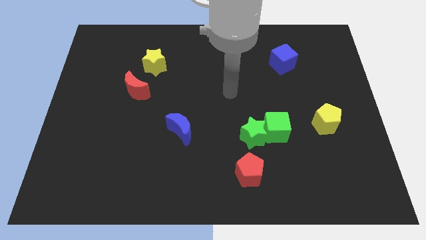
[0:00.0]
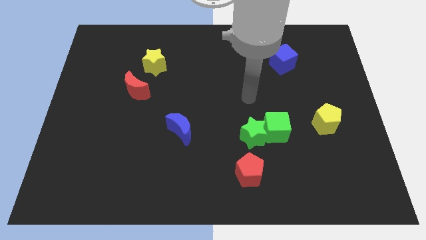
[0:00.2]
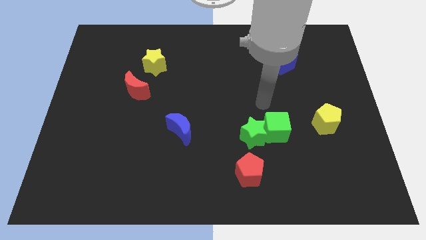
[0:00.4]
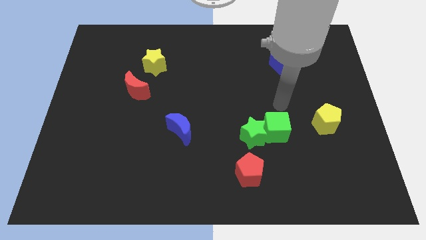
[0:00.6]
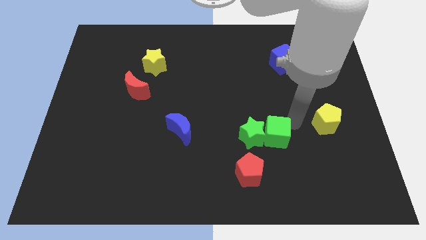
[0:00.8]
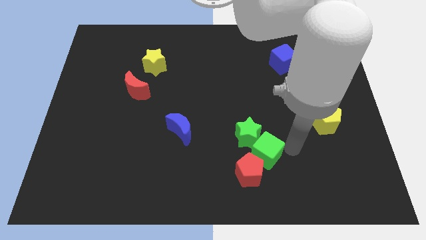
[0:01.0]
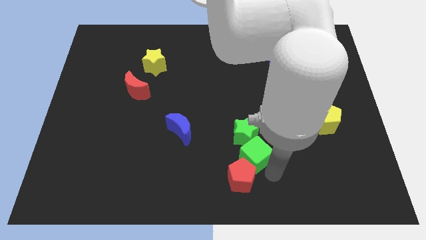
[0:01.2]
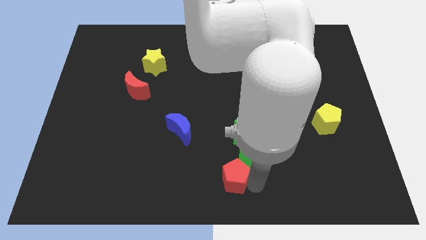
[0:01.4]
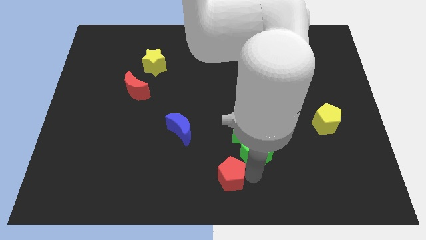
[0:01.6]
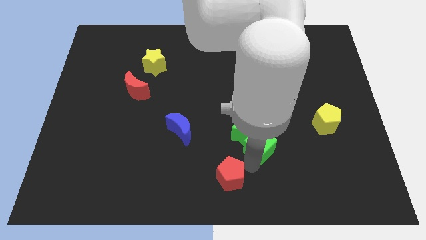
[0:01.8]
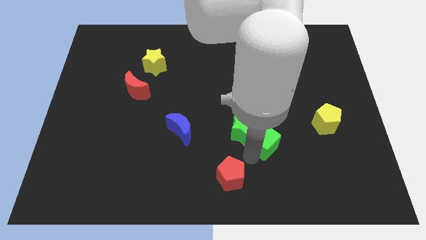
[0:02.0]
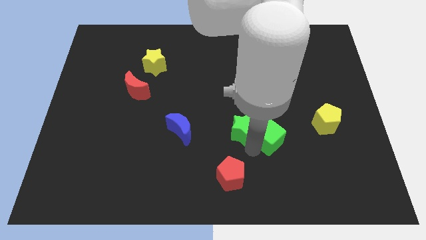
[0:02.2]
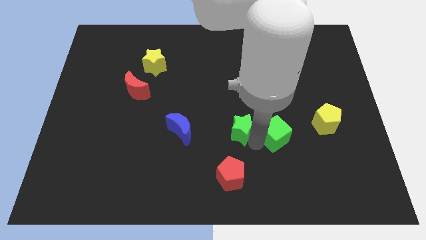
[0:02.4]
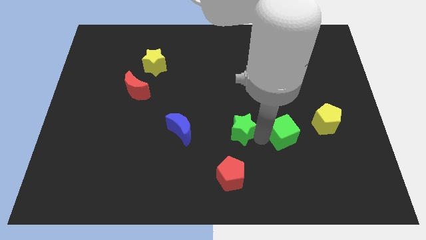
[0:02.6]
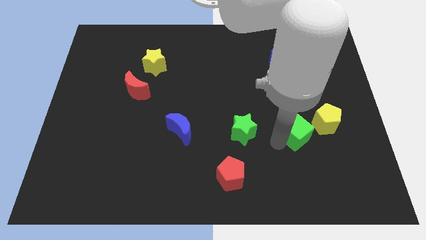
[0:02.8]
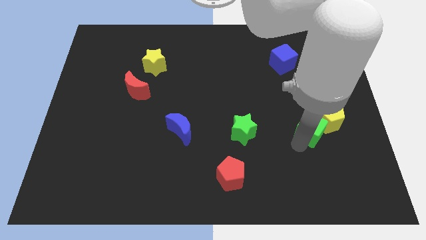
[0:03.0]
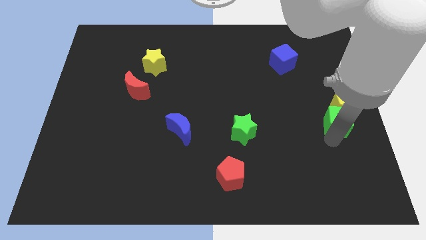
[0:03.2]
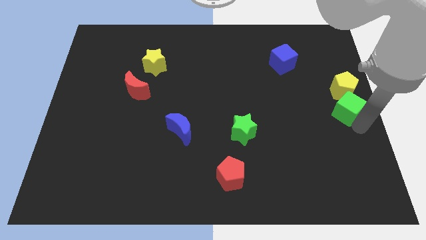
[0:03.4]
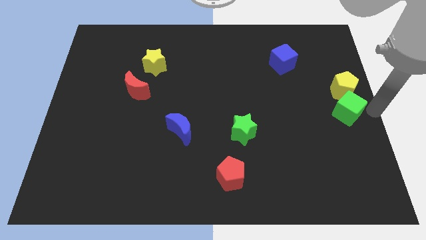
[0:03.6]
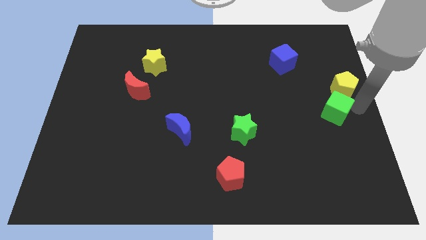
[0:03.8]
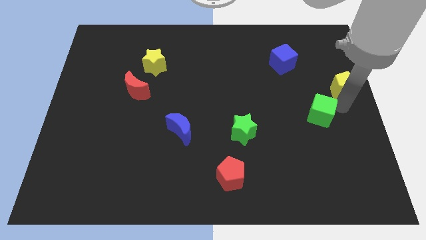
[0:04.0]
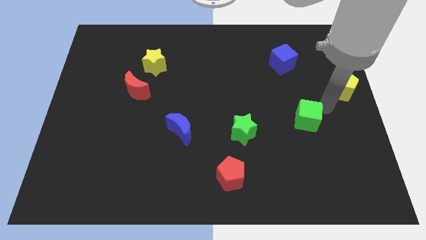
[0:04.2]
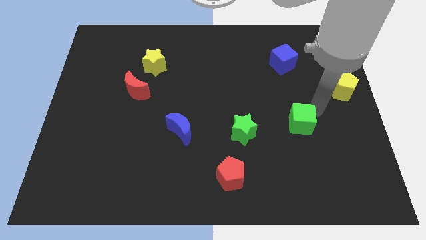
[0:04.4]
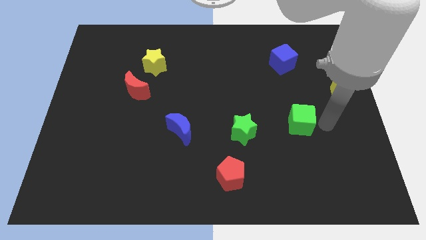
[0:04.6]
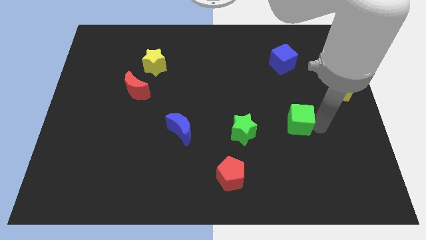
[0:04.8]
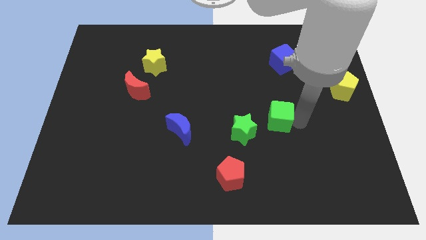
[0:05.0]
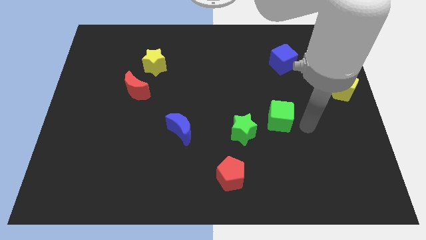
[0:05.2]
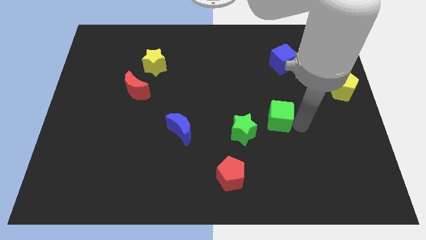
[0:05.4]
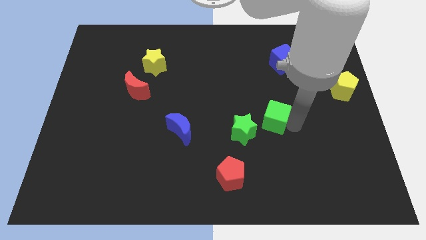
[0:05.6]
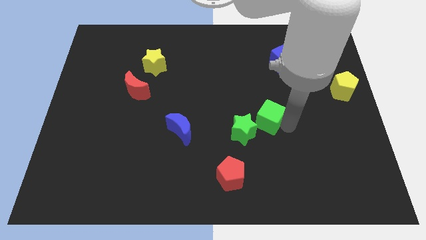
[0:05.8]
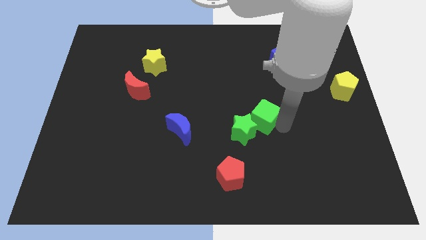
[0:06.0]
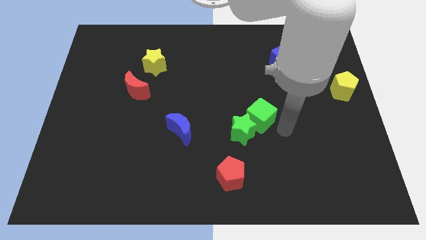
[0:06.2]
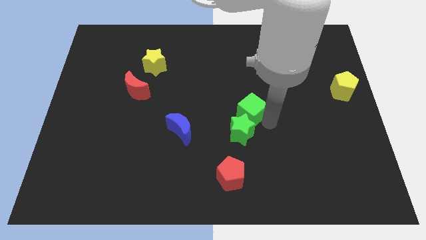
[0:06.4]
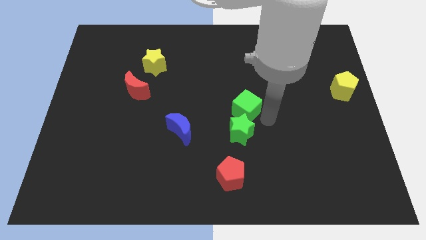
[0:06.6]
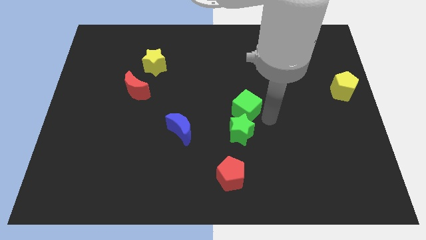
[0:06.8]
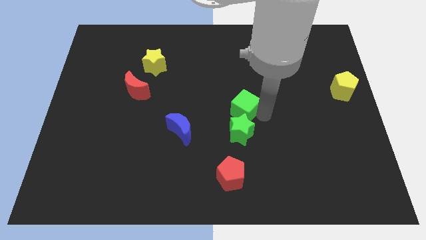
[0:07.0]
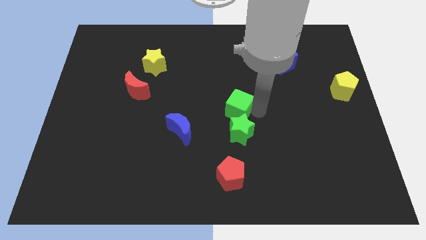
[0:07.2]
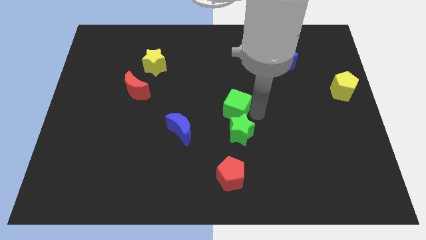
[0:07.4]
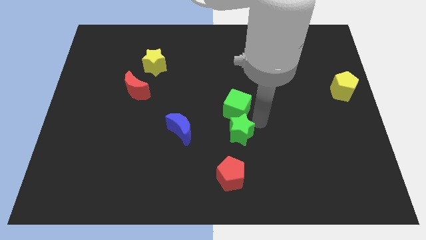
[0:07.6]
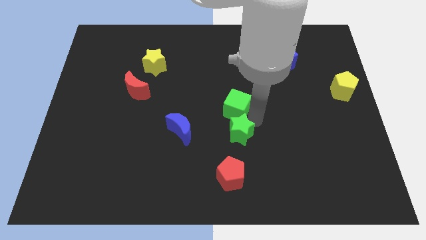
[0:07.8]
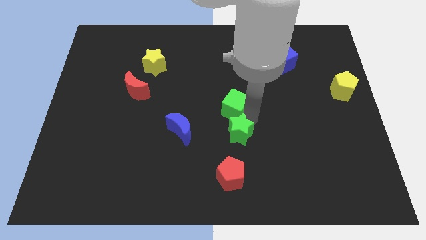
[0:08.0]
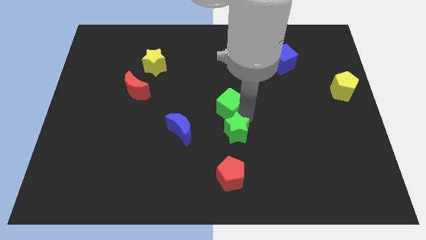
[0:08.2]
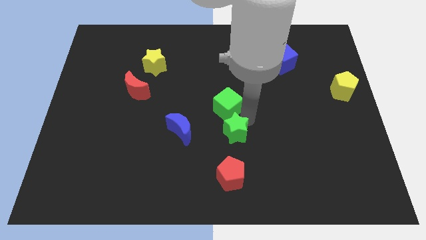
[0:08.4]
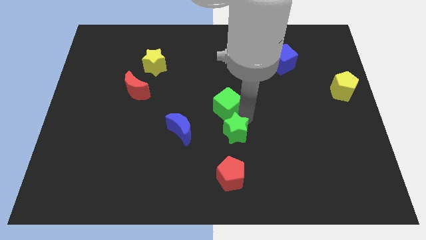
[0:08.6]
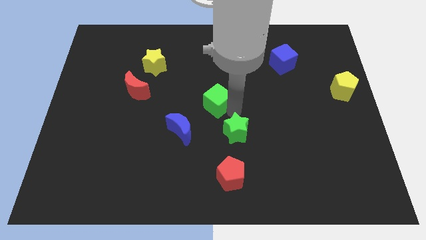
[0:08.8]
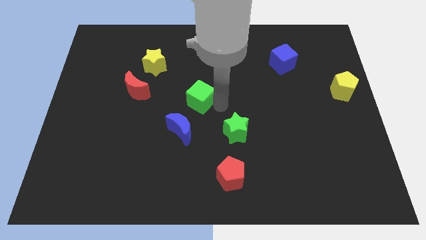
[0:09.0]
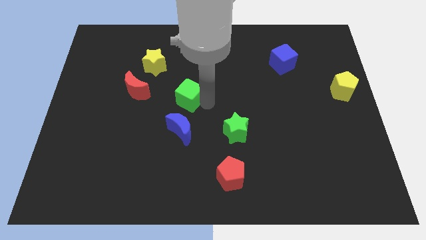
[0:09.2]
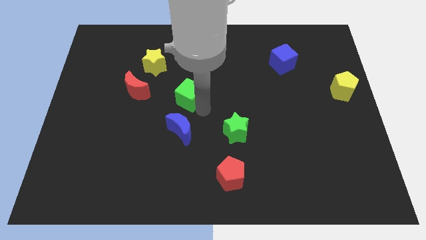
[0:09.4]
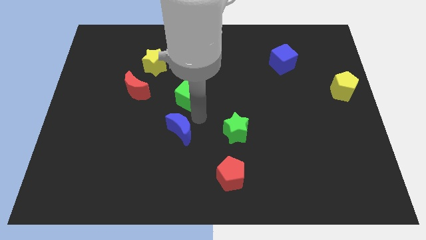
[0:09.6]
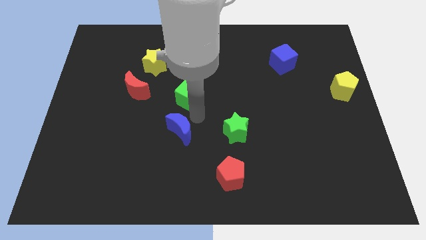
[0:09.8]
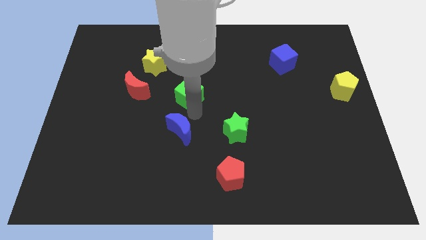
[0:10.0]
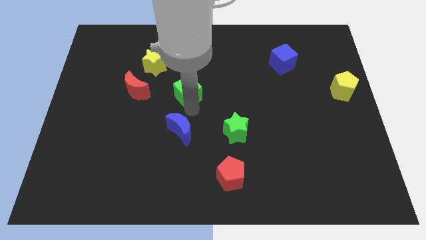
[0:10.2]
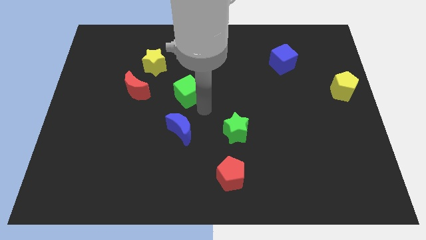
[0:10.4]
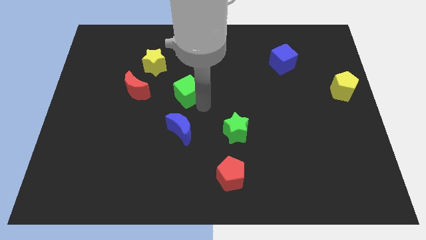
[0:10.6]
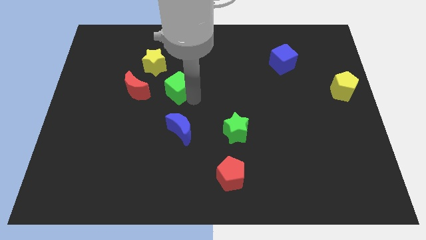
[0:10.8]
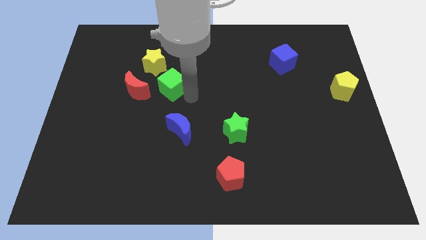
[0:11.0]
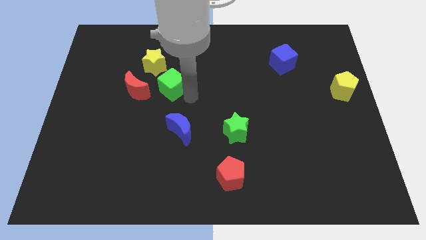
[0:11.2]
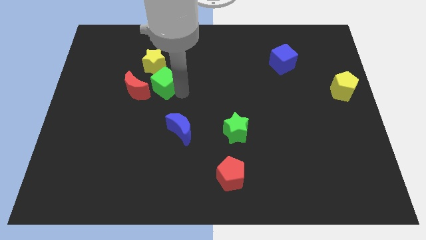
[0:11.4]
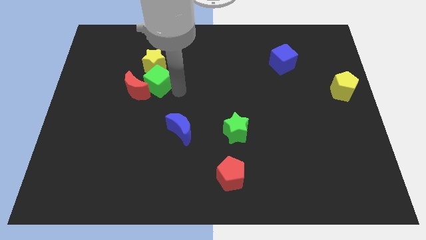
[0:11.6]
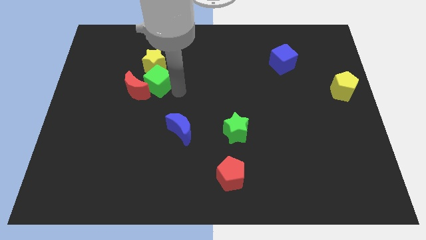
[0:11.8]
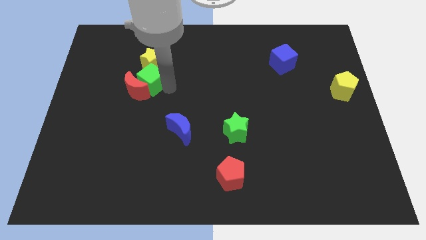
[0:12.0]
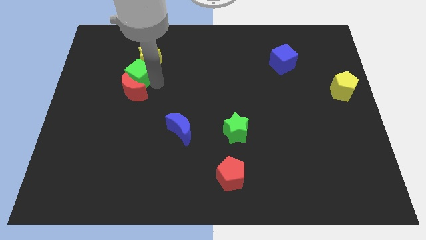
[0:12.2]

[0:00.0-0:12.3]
push the green cube diagonally up and to the left of the red moon

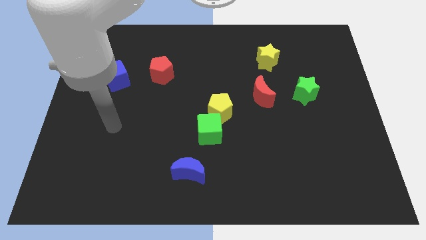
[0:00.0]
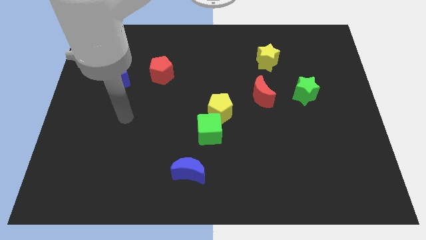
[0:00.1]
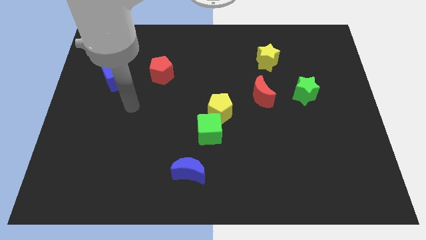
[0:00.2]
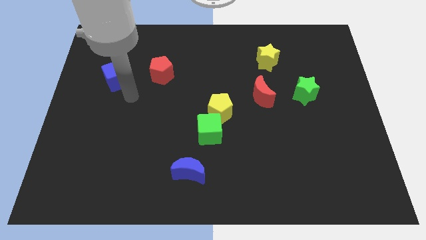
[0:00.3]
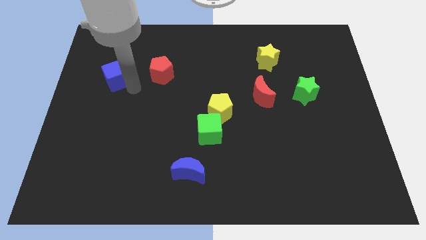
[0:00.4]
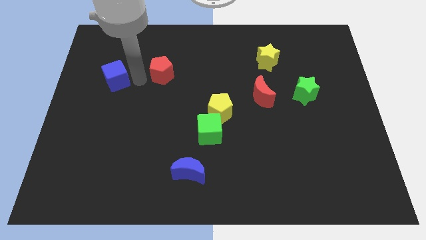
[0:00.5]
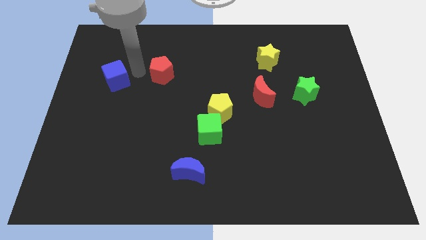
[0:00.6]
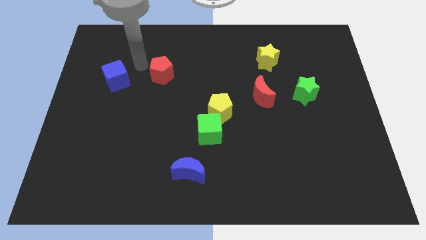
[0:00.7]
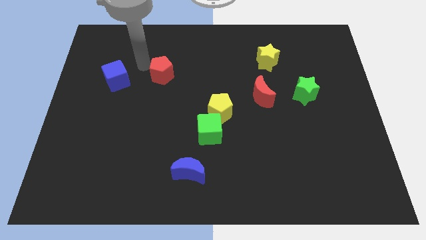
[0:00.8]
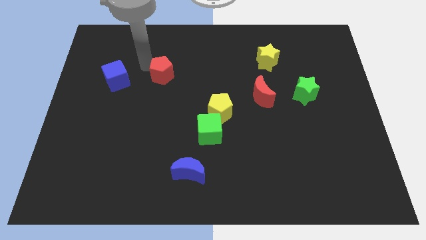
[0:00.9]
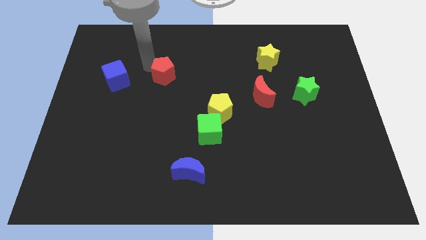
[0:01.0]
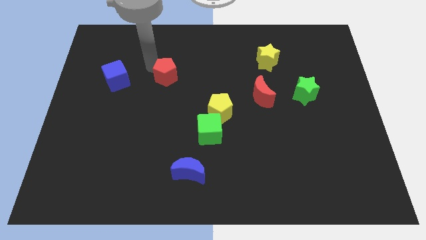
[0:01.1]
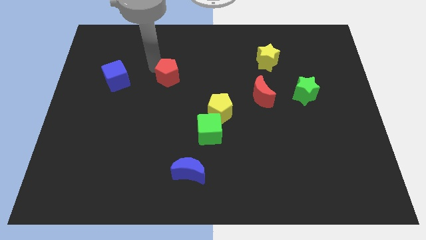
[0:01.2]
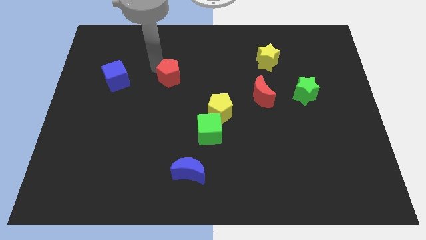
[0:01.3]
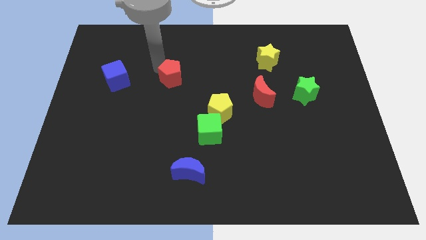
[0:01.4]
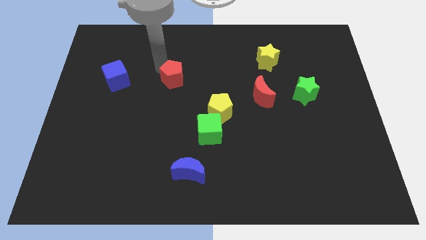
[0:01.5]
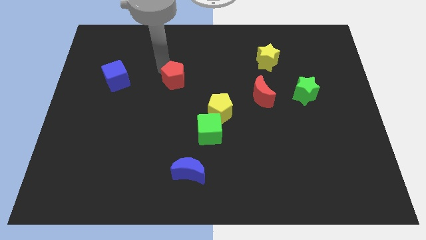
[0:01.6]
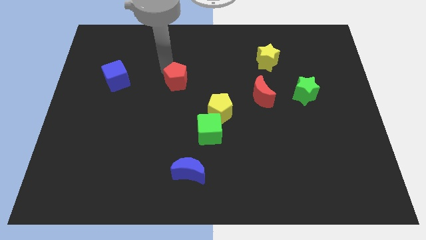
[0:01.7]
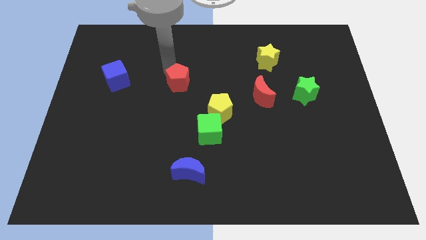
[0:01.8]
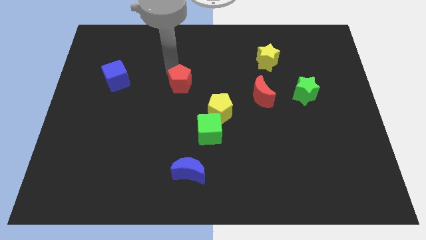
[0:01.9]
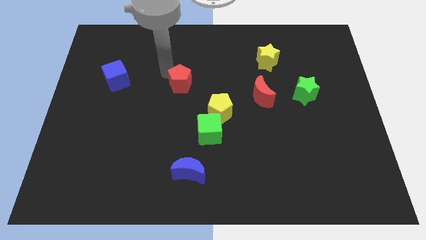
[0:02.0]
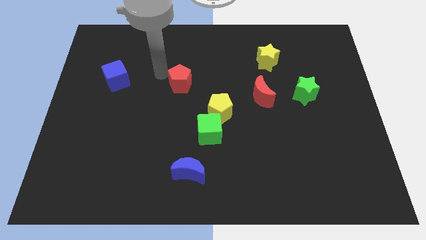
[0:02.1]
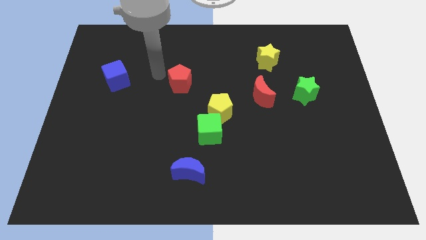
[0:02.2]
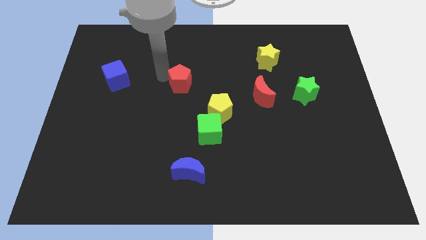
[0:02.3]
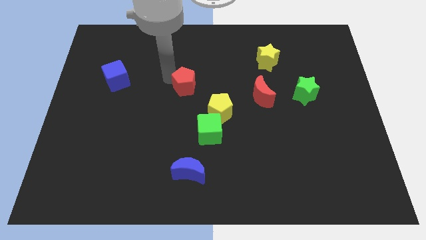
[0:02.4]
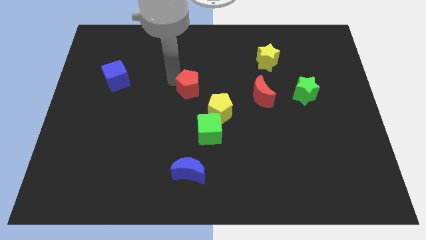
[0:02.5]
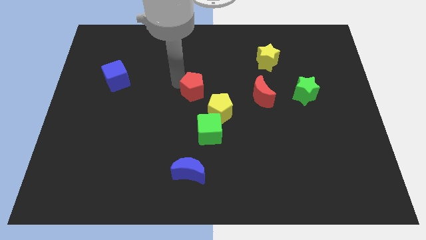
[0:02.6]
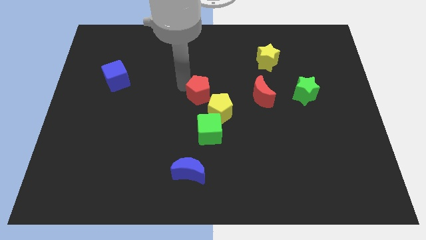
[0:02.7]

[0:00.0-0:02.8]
put the red pentagon left of the red moon
